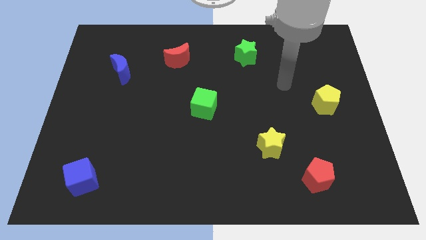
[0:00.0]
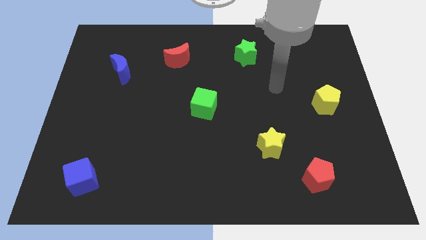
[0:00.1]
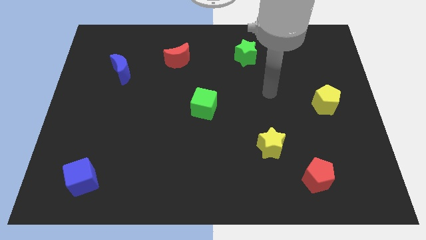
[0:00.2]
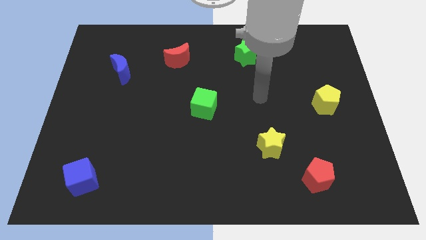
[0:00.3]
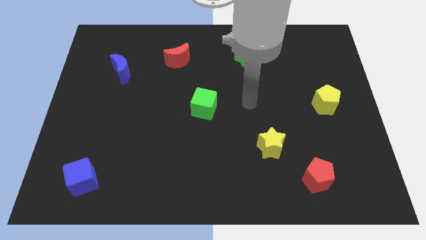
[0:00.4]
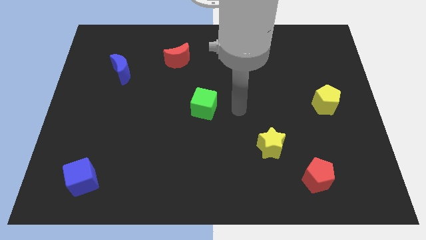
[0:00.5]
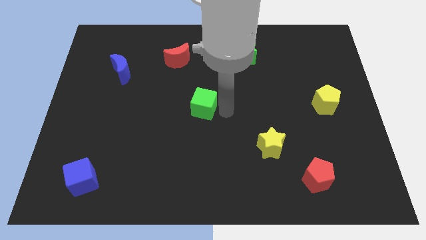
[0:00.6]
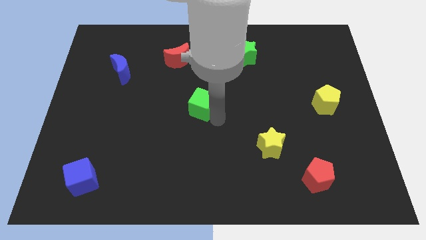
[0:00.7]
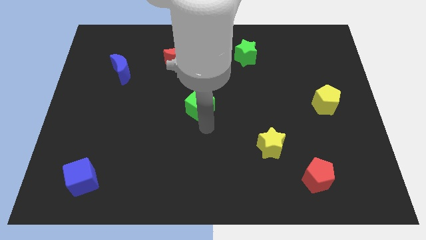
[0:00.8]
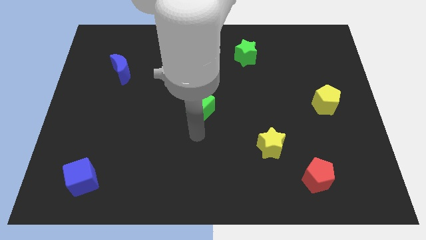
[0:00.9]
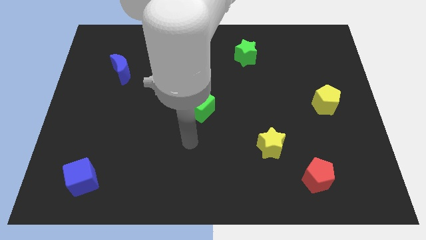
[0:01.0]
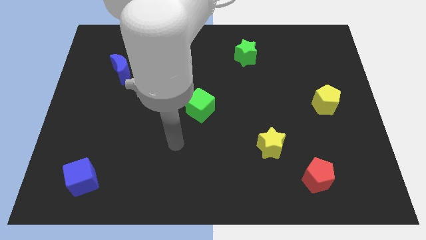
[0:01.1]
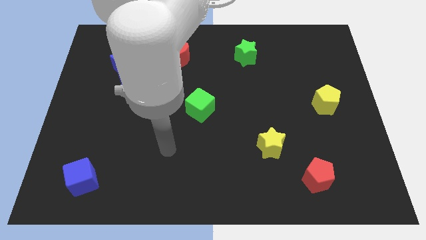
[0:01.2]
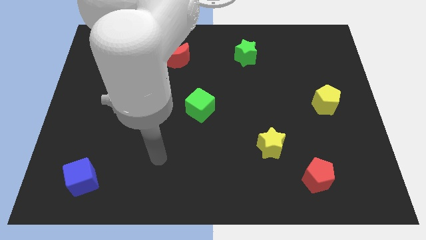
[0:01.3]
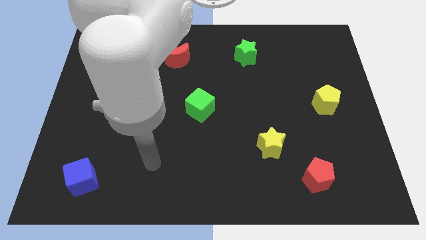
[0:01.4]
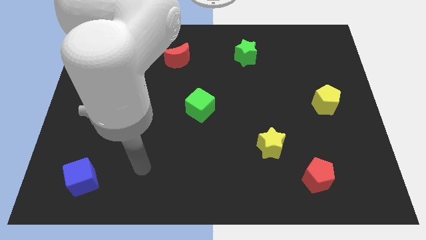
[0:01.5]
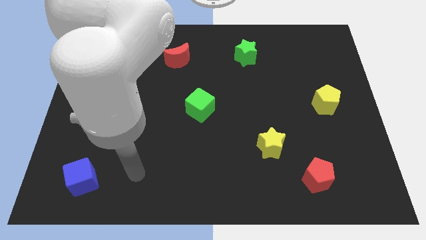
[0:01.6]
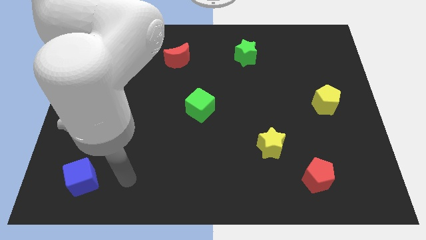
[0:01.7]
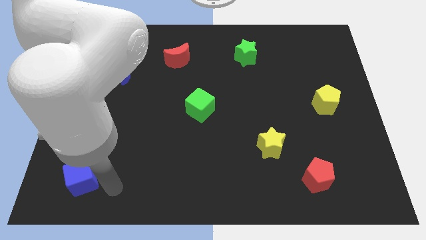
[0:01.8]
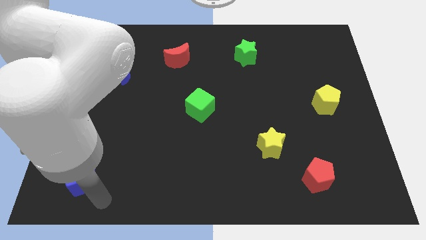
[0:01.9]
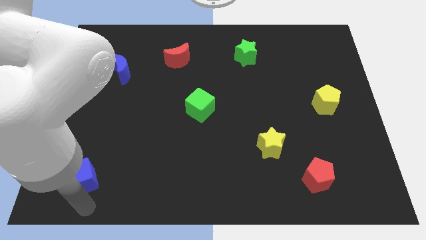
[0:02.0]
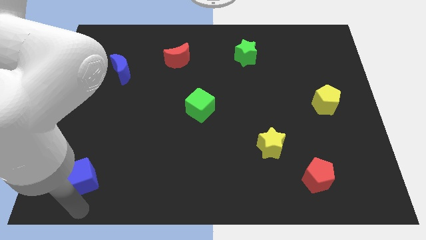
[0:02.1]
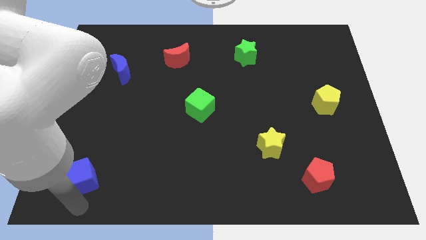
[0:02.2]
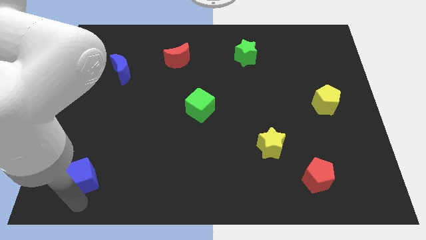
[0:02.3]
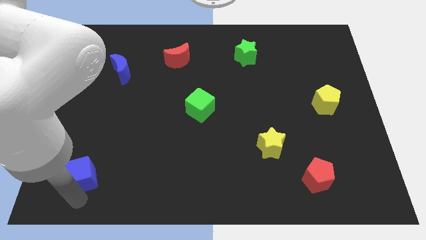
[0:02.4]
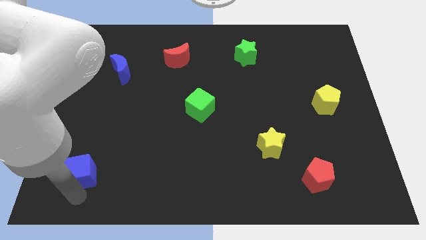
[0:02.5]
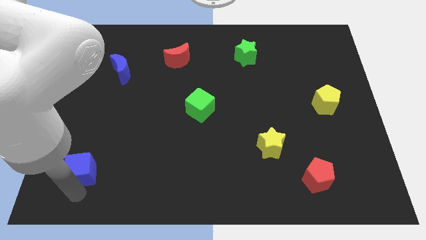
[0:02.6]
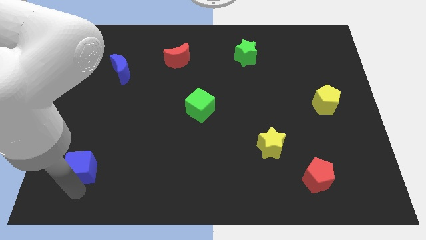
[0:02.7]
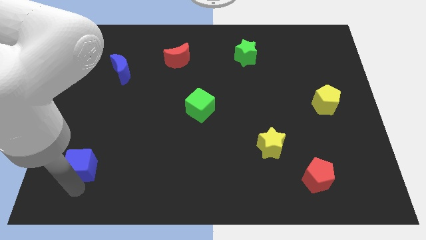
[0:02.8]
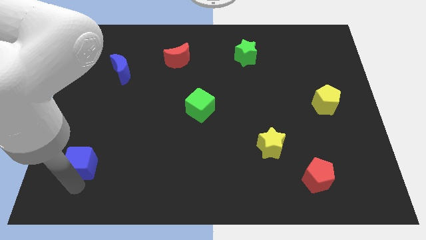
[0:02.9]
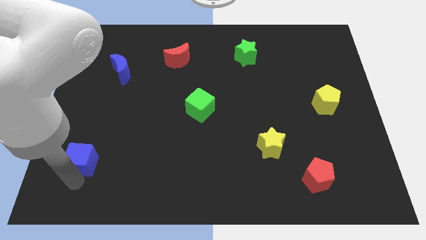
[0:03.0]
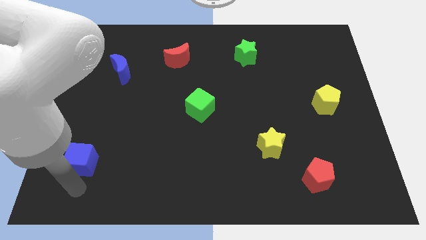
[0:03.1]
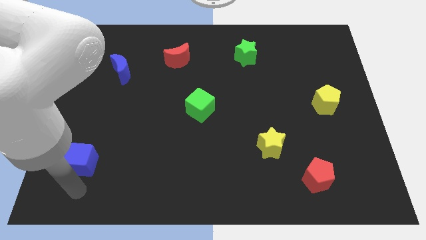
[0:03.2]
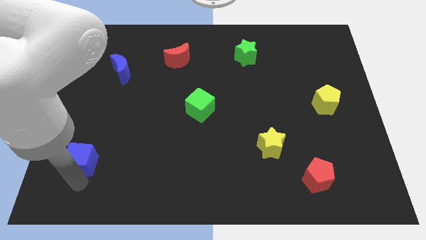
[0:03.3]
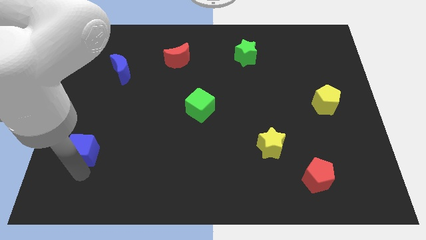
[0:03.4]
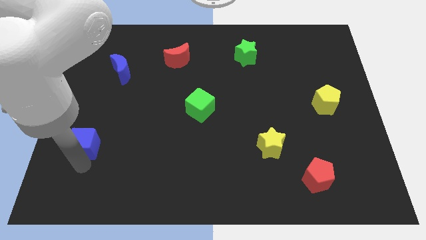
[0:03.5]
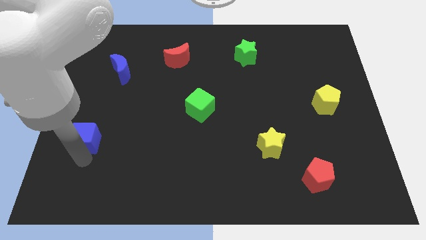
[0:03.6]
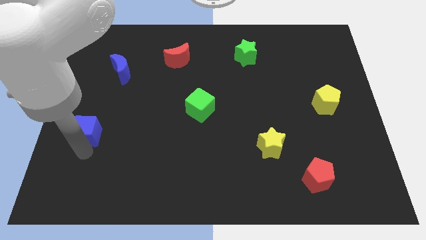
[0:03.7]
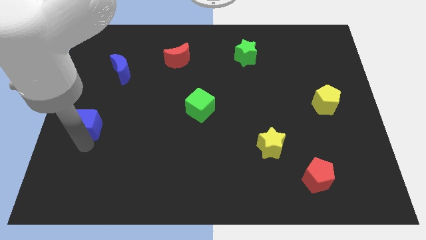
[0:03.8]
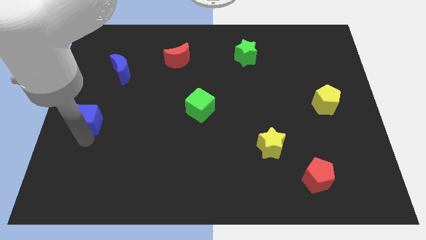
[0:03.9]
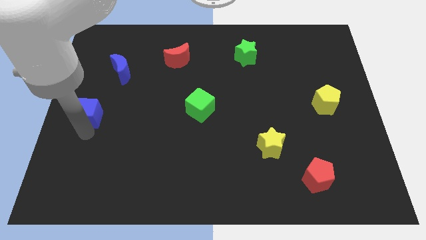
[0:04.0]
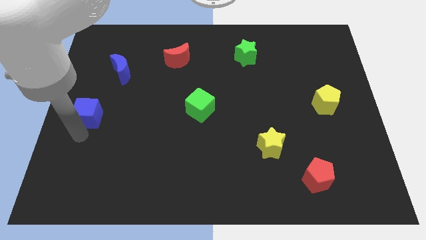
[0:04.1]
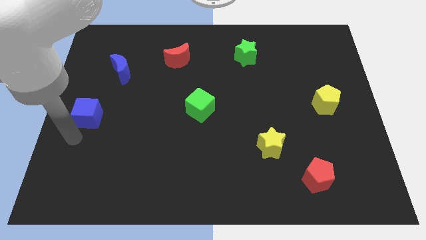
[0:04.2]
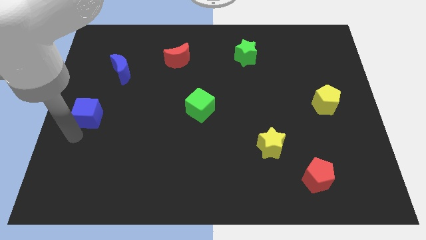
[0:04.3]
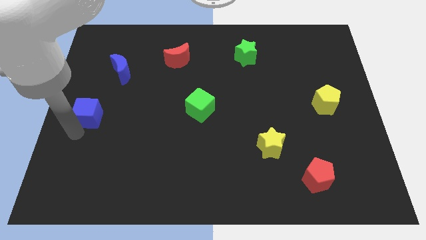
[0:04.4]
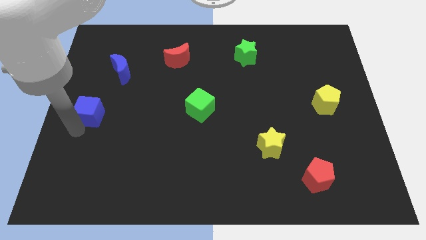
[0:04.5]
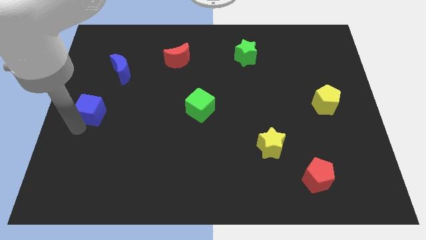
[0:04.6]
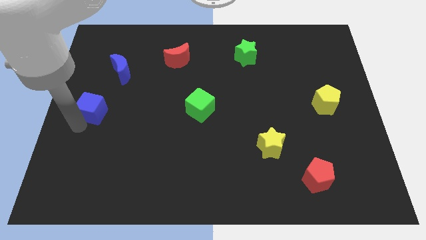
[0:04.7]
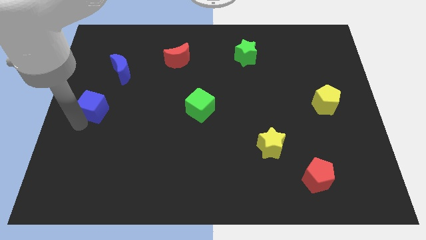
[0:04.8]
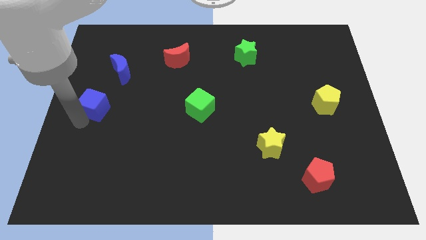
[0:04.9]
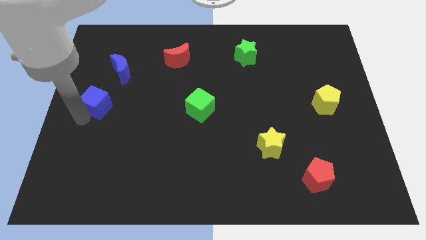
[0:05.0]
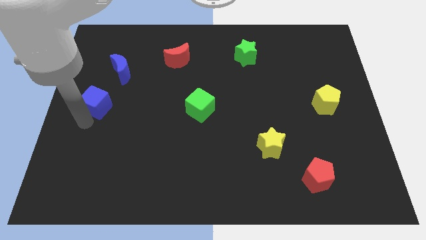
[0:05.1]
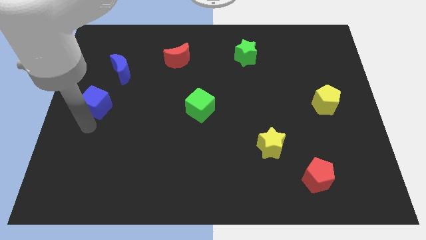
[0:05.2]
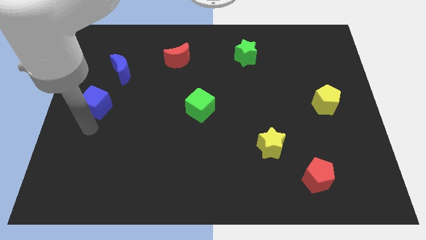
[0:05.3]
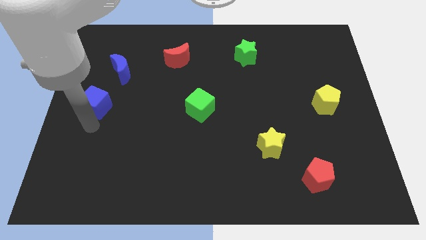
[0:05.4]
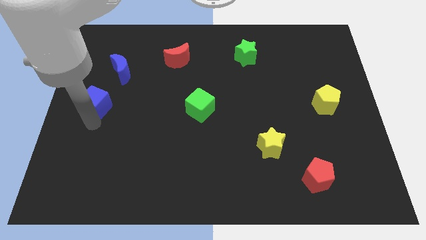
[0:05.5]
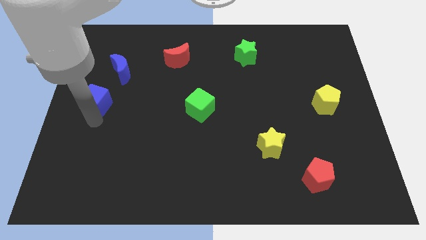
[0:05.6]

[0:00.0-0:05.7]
slide the blue cube up

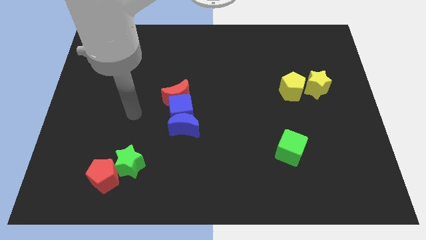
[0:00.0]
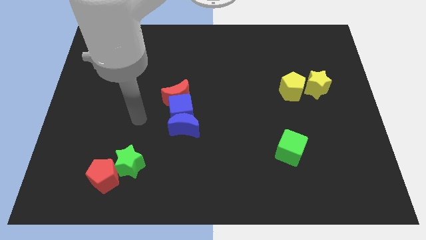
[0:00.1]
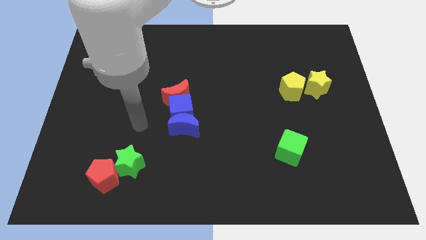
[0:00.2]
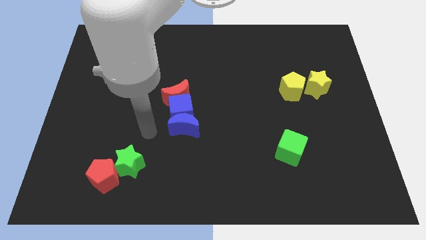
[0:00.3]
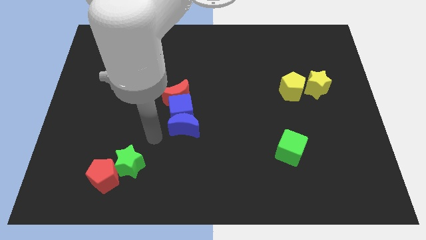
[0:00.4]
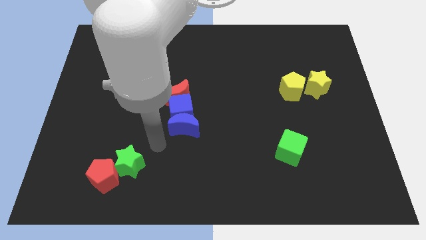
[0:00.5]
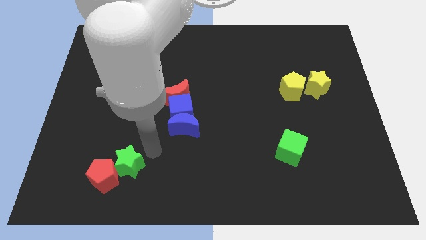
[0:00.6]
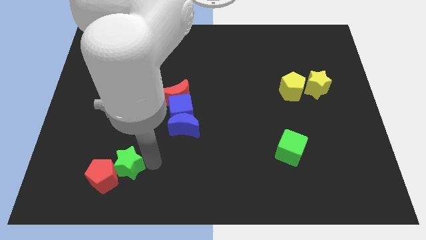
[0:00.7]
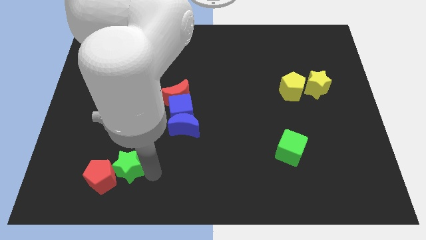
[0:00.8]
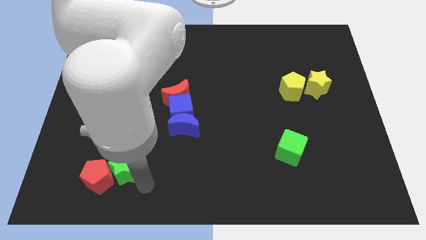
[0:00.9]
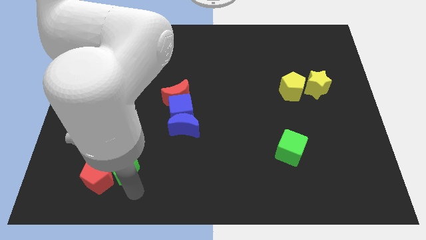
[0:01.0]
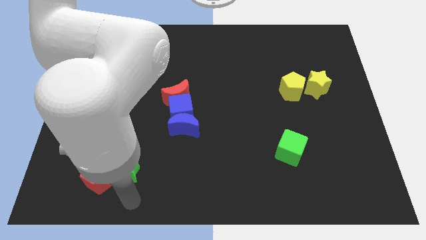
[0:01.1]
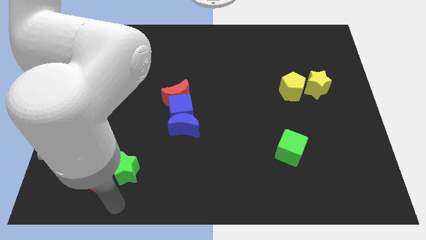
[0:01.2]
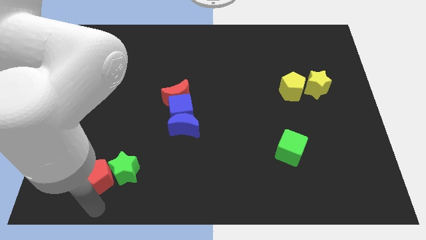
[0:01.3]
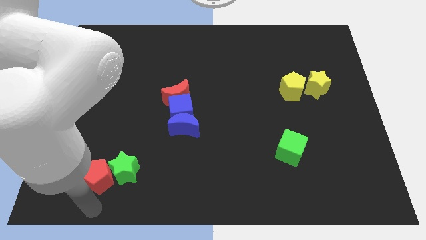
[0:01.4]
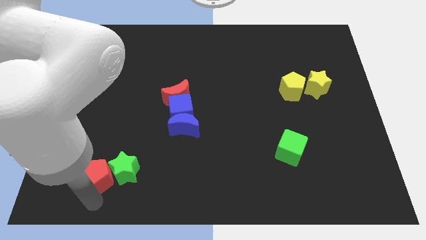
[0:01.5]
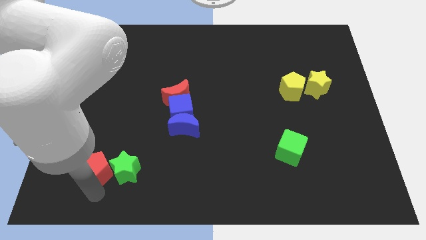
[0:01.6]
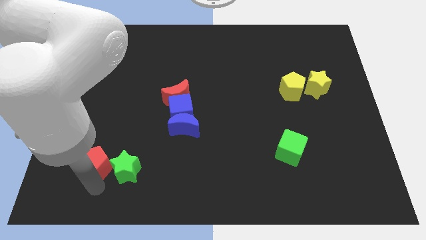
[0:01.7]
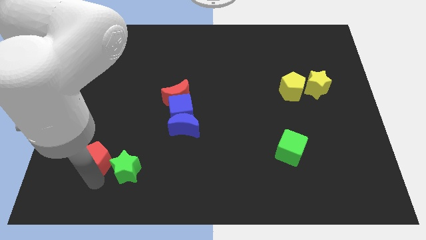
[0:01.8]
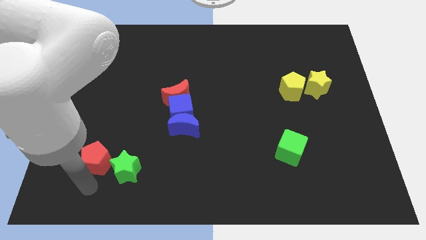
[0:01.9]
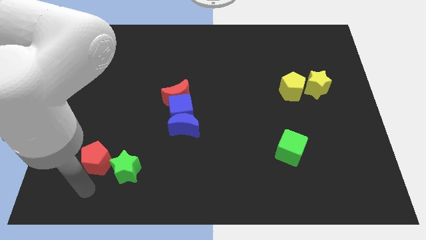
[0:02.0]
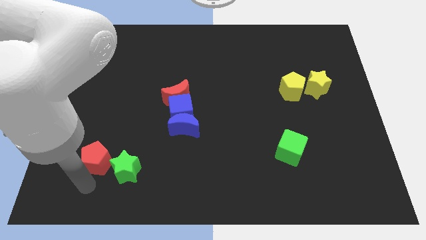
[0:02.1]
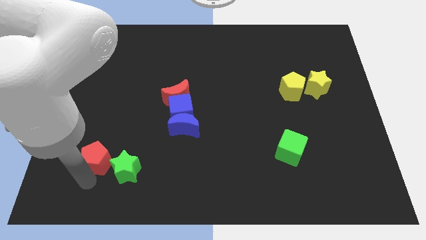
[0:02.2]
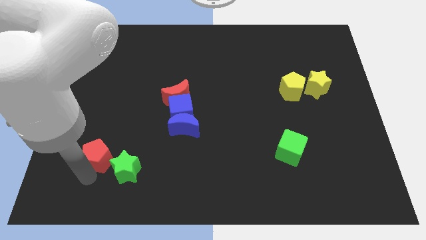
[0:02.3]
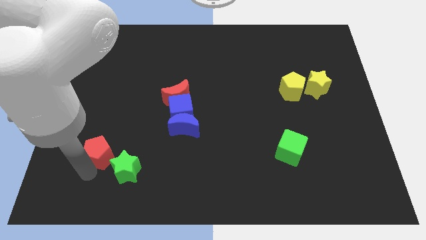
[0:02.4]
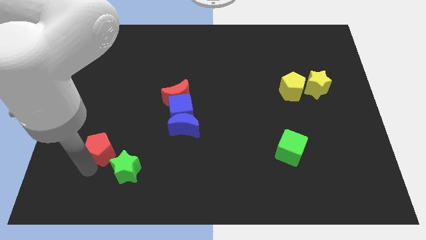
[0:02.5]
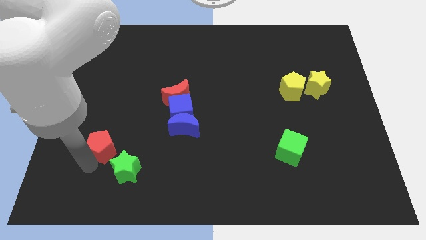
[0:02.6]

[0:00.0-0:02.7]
slightly move the red pentagon upwards
